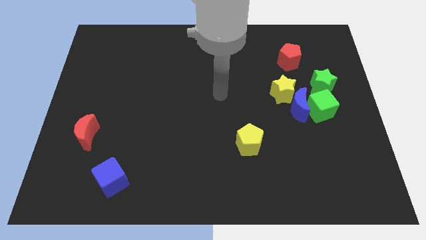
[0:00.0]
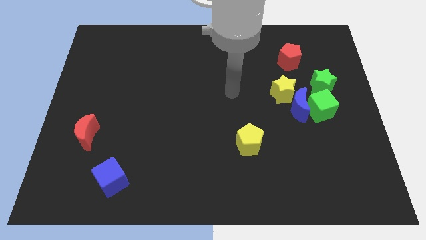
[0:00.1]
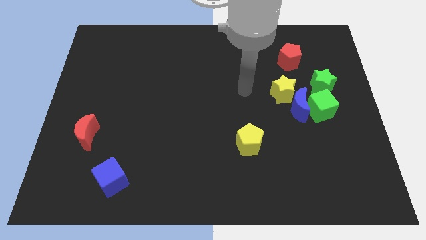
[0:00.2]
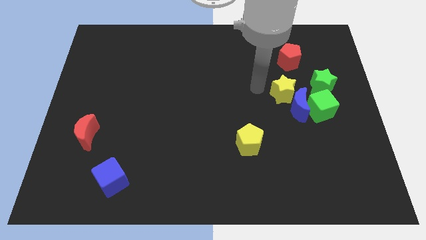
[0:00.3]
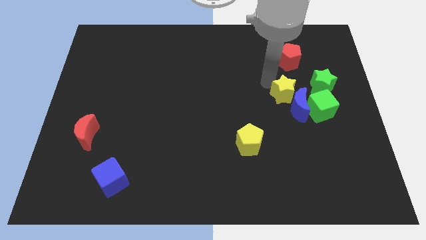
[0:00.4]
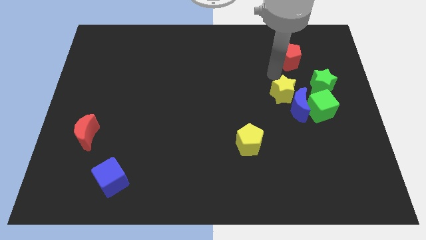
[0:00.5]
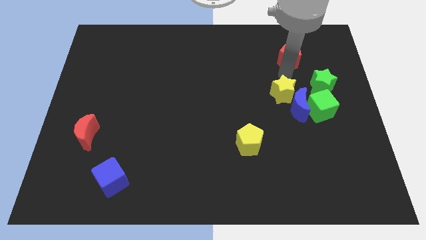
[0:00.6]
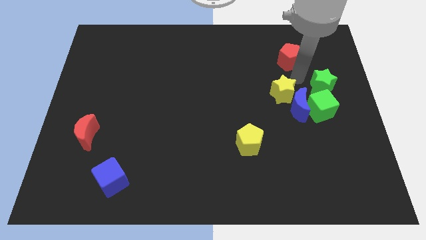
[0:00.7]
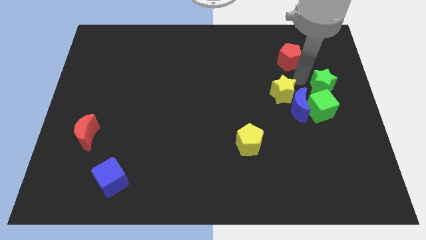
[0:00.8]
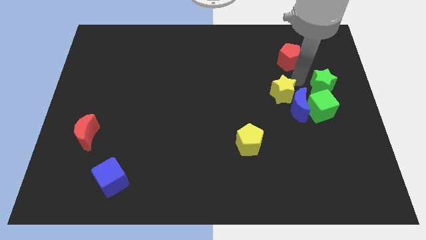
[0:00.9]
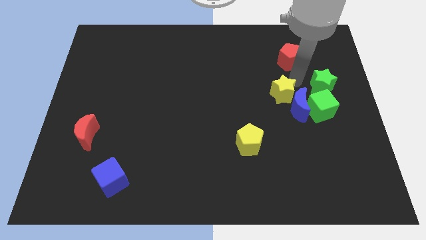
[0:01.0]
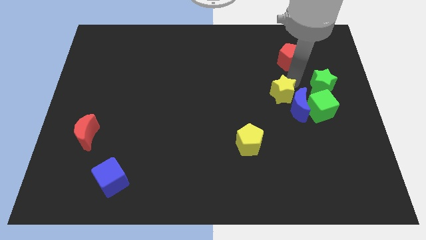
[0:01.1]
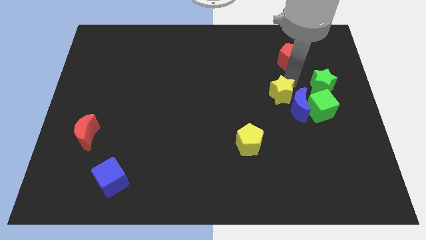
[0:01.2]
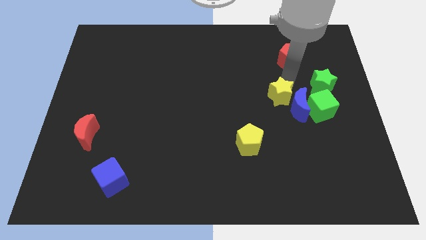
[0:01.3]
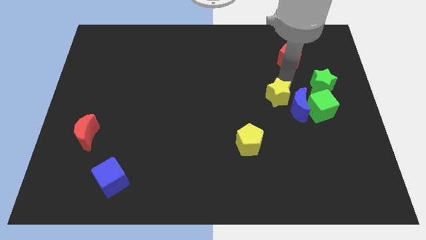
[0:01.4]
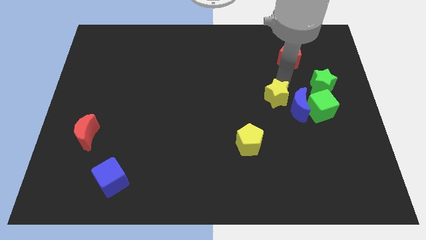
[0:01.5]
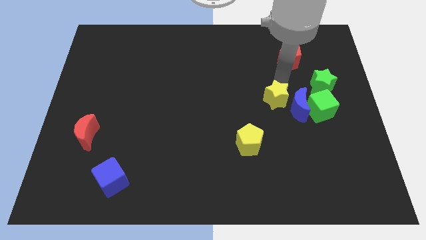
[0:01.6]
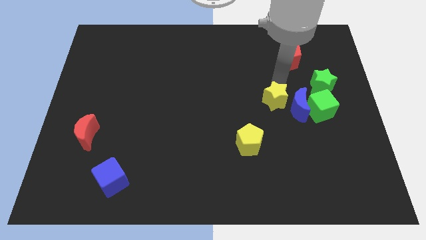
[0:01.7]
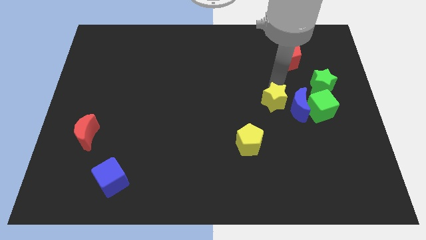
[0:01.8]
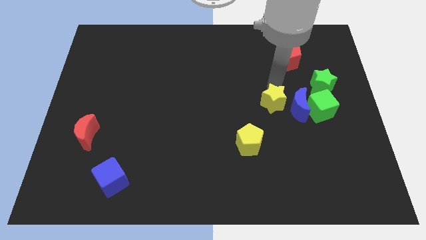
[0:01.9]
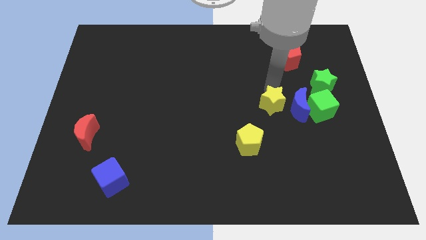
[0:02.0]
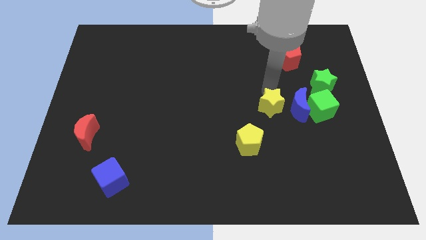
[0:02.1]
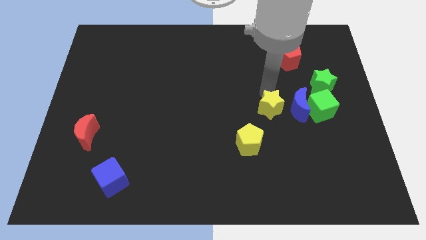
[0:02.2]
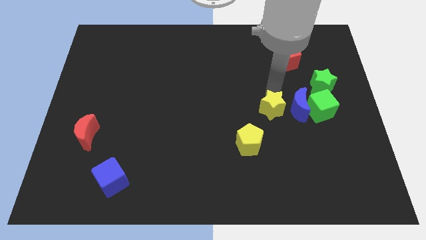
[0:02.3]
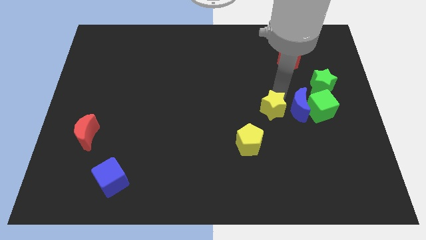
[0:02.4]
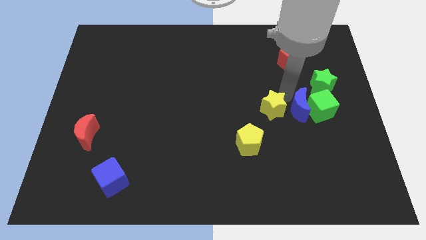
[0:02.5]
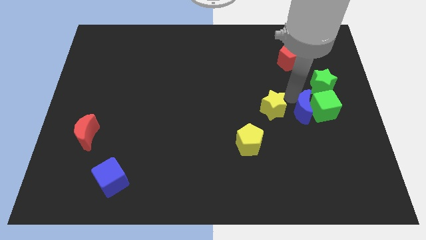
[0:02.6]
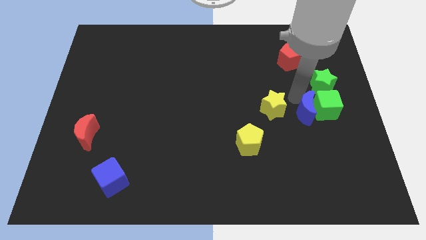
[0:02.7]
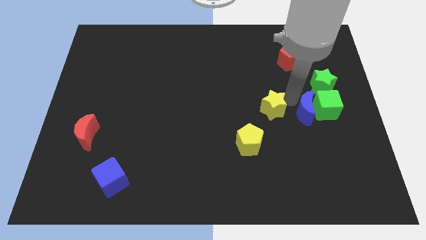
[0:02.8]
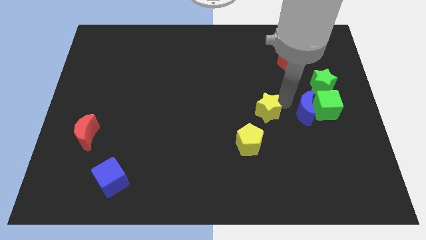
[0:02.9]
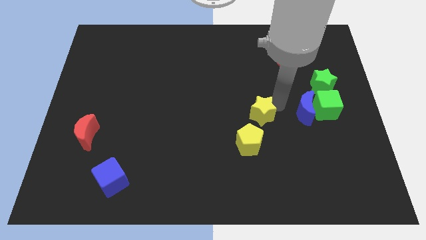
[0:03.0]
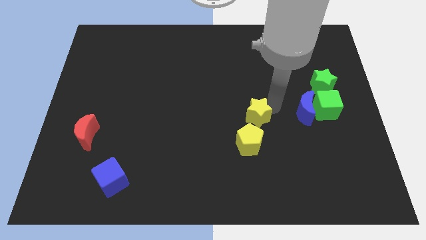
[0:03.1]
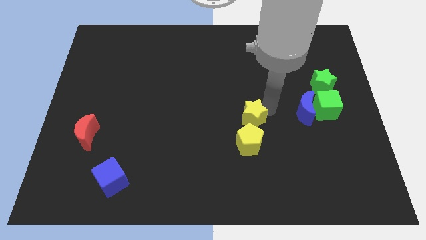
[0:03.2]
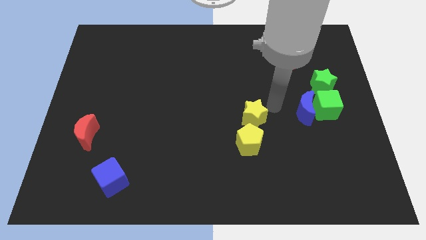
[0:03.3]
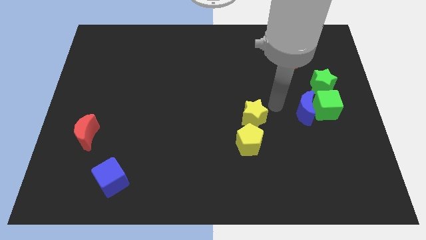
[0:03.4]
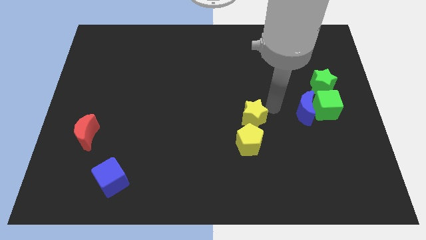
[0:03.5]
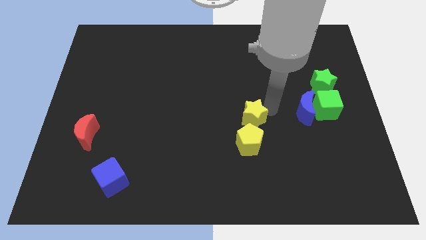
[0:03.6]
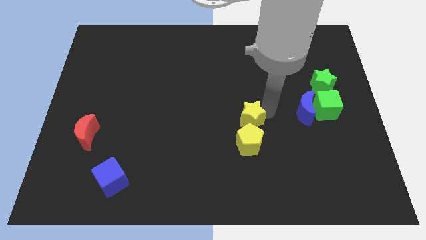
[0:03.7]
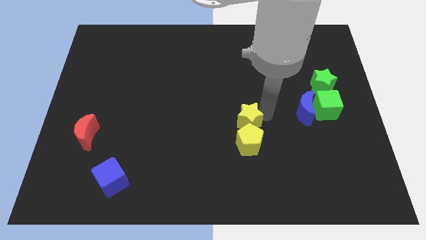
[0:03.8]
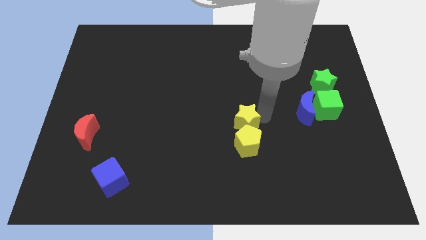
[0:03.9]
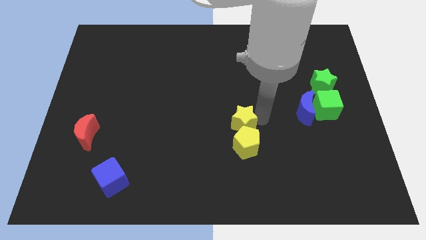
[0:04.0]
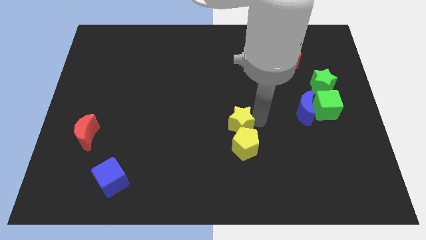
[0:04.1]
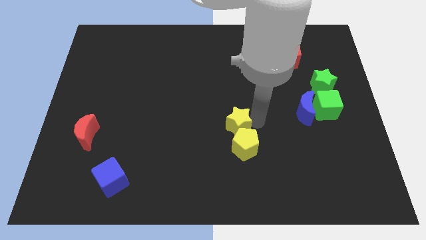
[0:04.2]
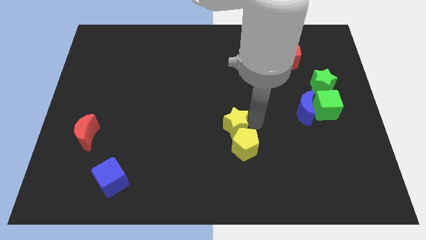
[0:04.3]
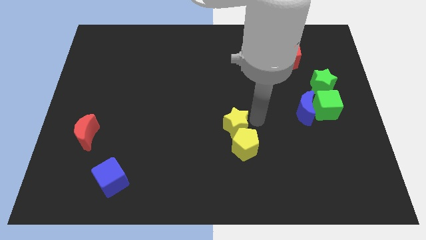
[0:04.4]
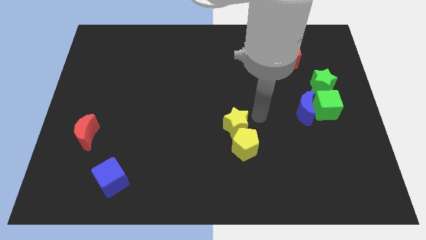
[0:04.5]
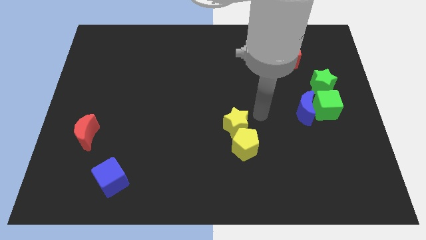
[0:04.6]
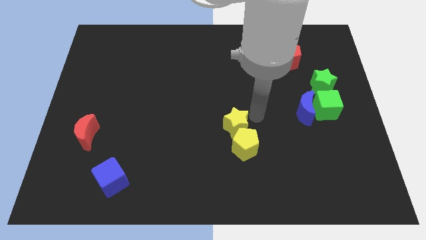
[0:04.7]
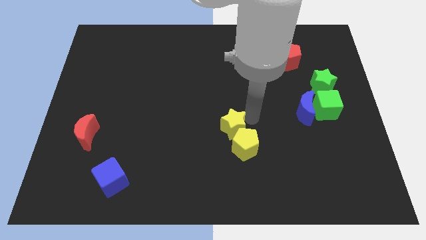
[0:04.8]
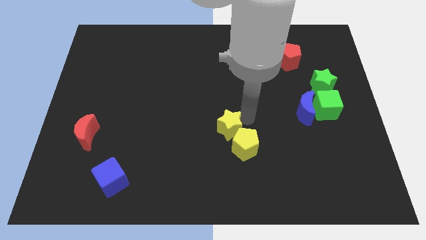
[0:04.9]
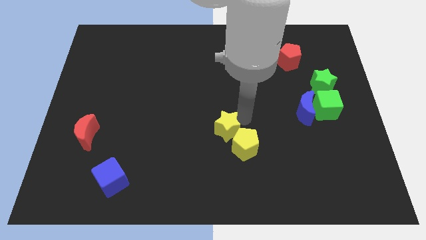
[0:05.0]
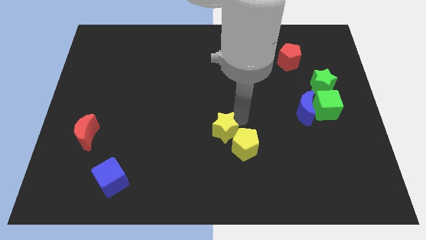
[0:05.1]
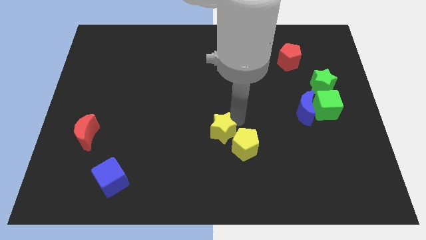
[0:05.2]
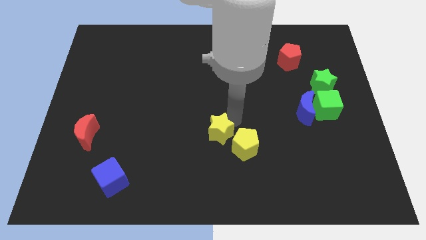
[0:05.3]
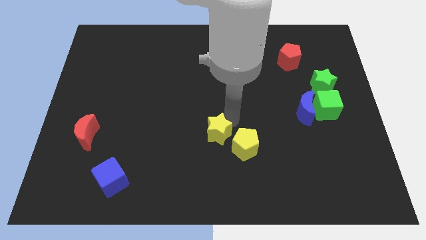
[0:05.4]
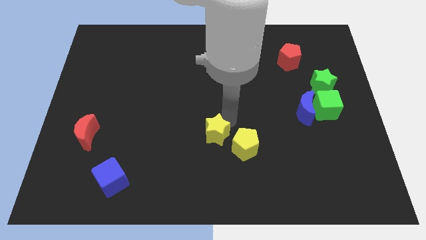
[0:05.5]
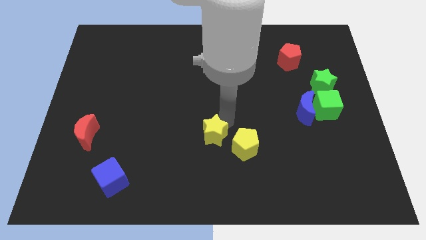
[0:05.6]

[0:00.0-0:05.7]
push the yellow star downwards and left

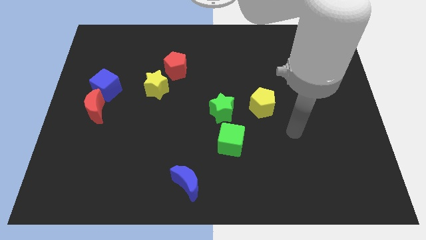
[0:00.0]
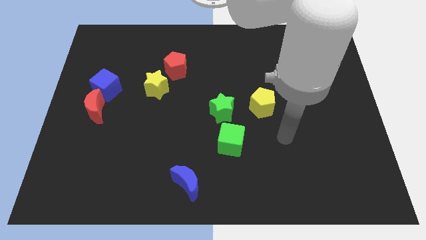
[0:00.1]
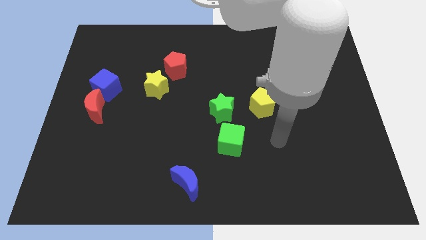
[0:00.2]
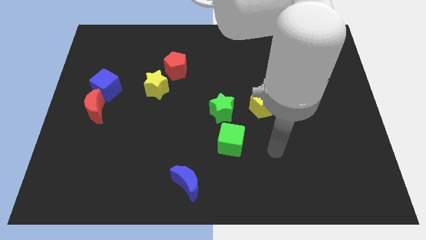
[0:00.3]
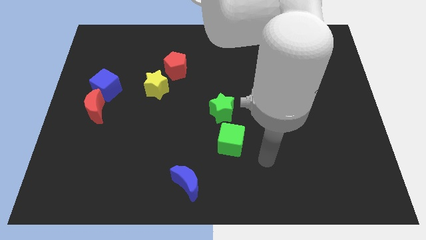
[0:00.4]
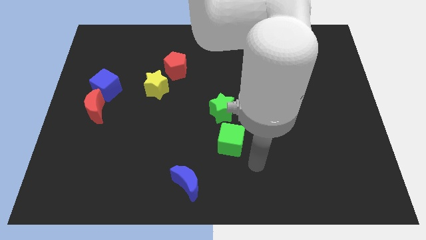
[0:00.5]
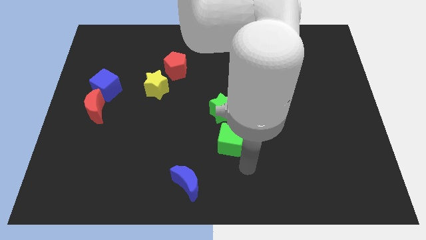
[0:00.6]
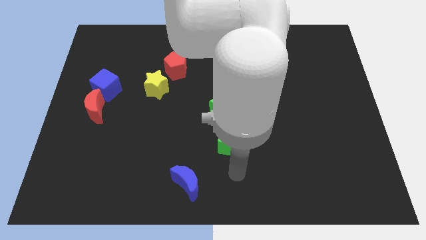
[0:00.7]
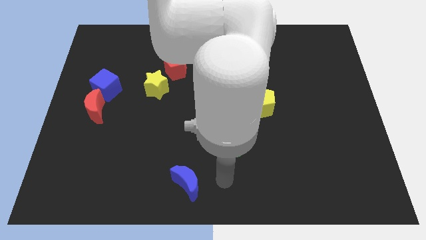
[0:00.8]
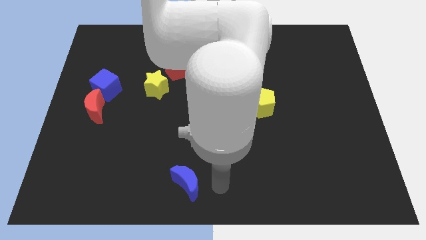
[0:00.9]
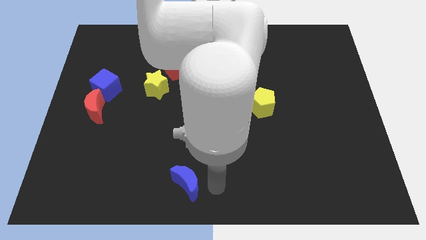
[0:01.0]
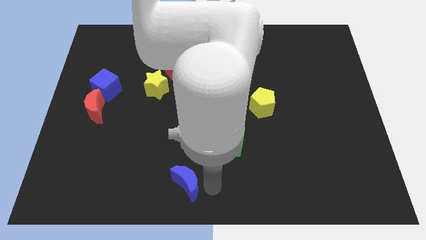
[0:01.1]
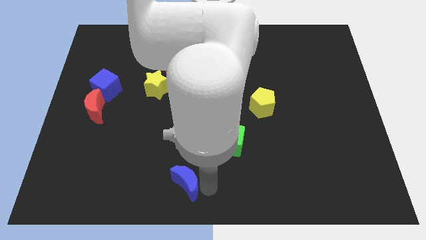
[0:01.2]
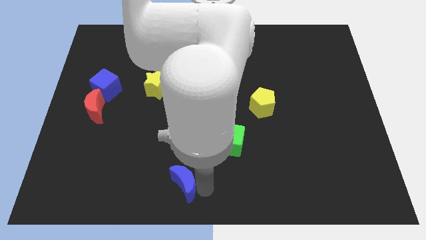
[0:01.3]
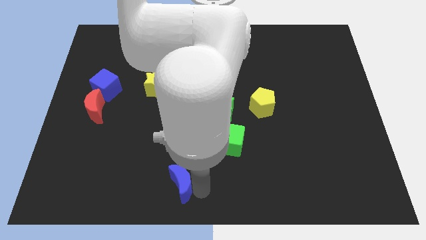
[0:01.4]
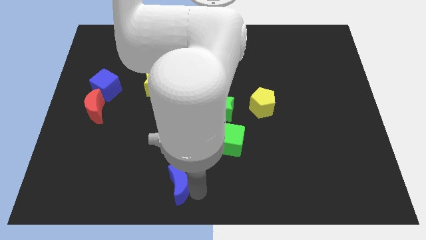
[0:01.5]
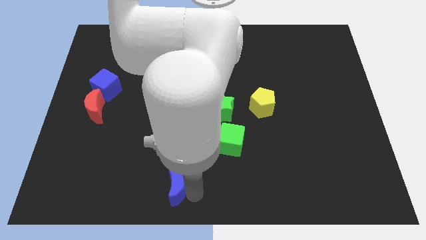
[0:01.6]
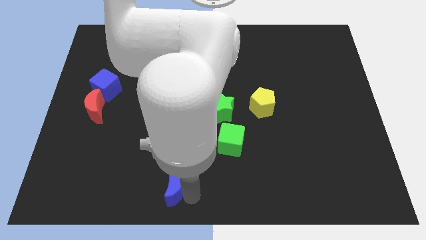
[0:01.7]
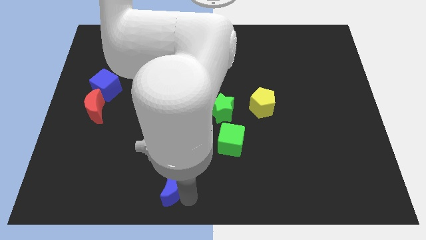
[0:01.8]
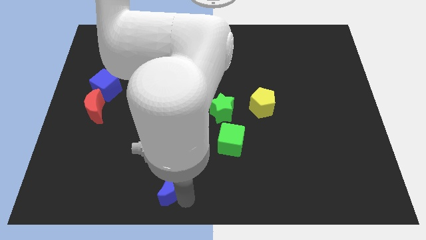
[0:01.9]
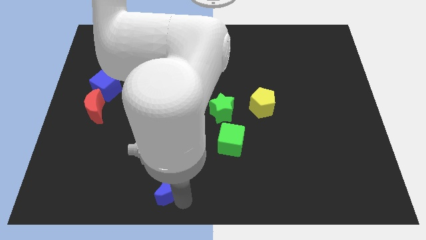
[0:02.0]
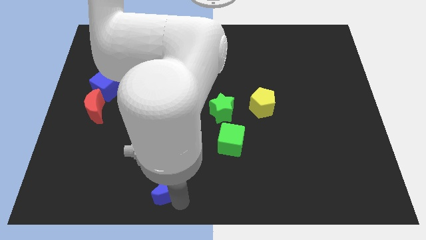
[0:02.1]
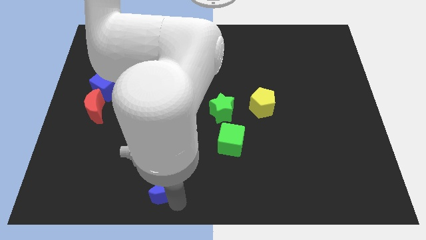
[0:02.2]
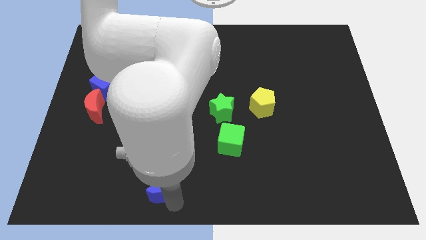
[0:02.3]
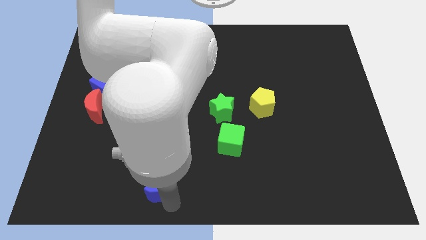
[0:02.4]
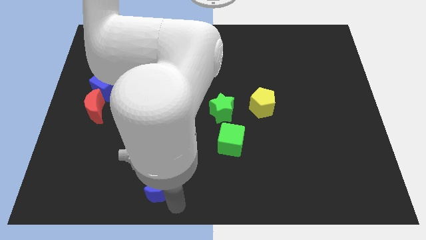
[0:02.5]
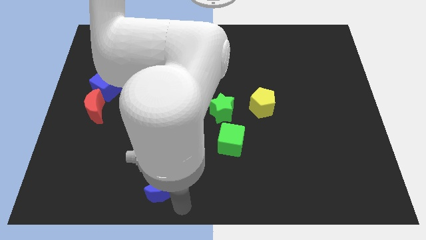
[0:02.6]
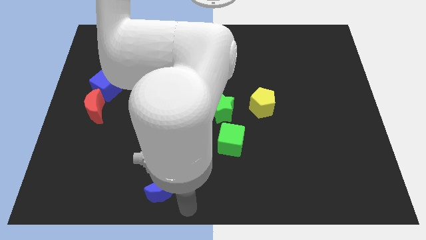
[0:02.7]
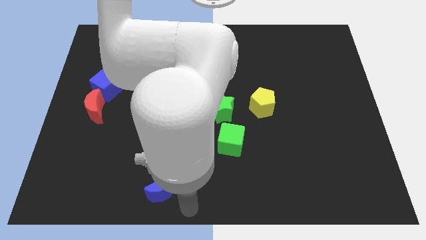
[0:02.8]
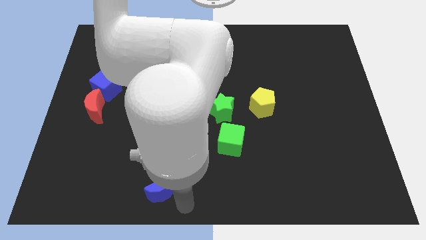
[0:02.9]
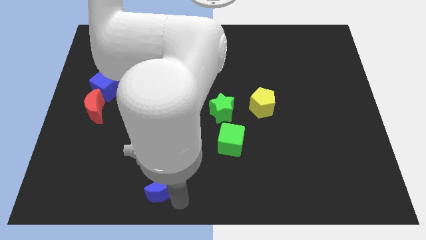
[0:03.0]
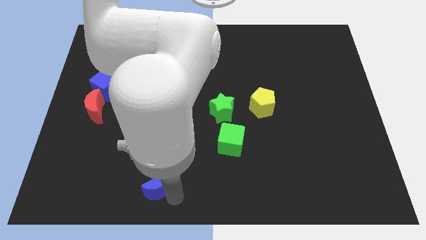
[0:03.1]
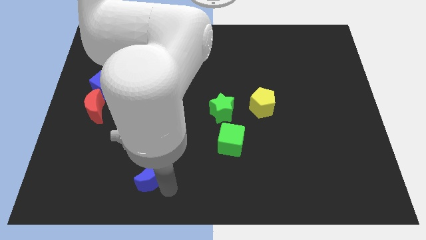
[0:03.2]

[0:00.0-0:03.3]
slightly slide the blue moon left
